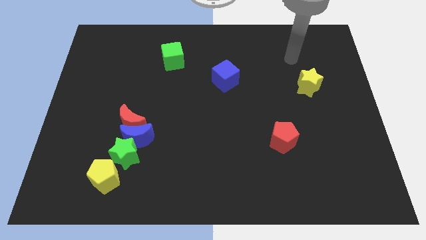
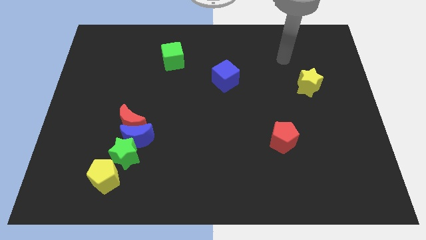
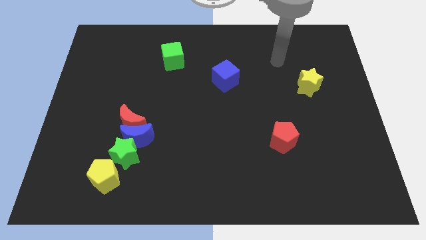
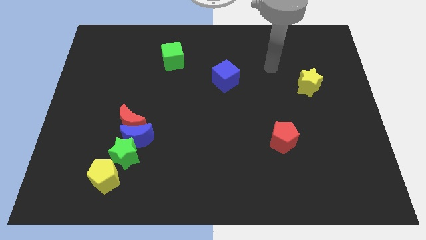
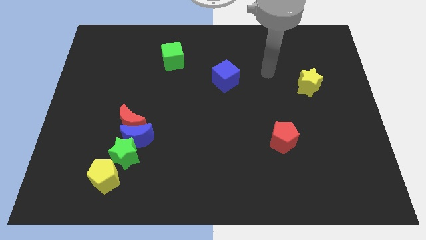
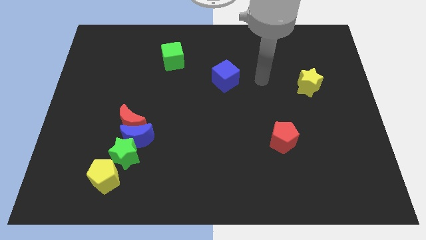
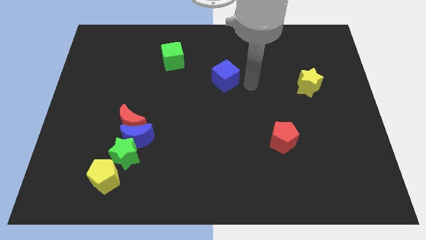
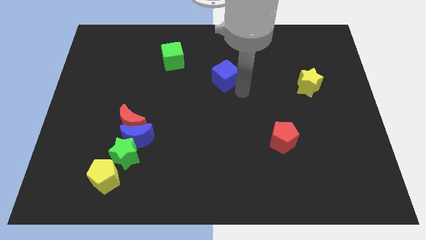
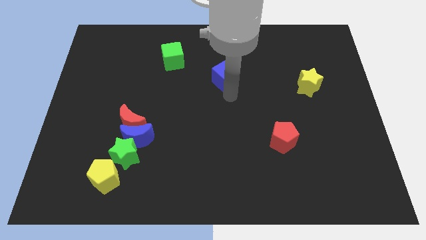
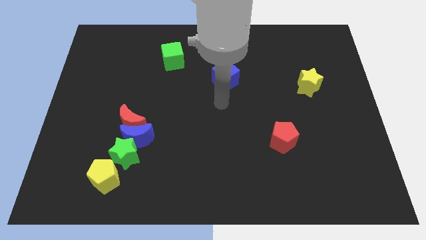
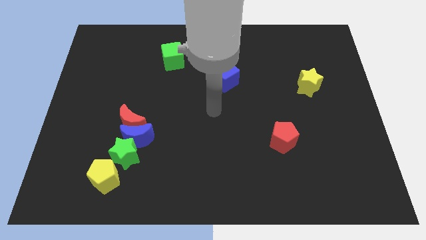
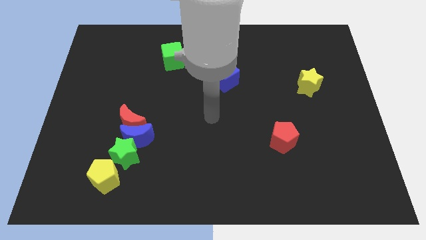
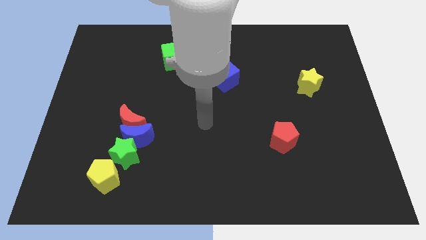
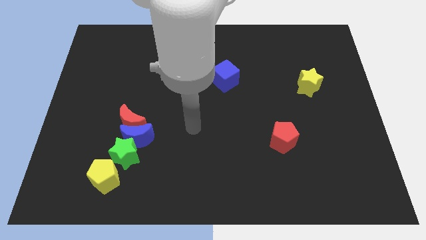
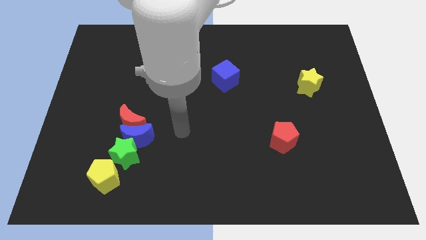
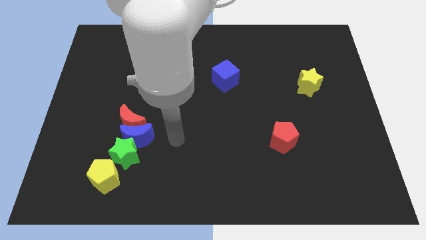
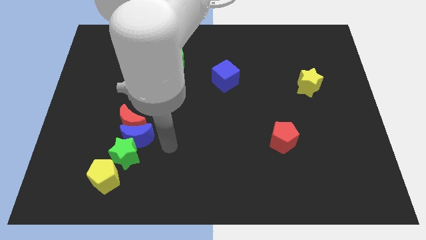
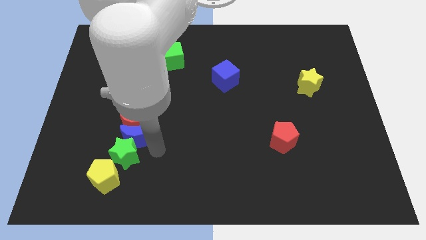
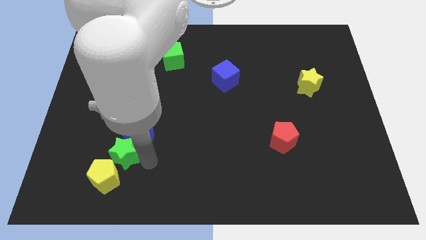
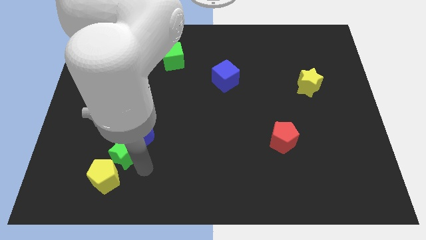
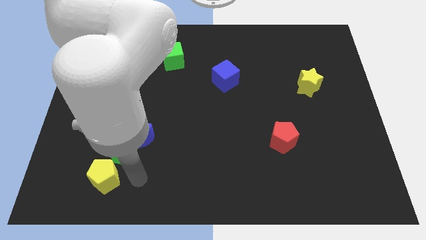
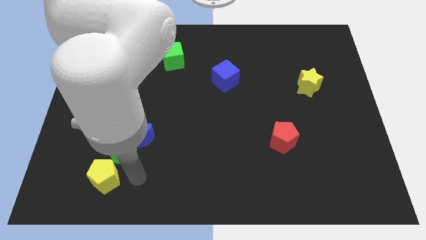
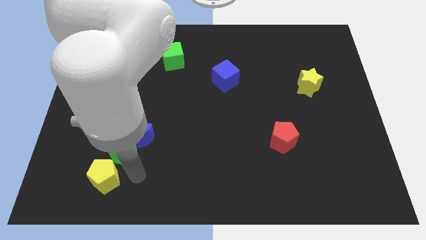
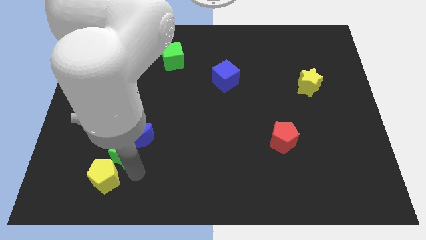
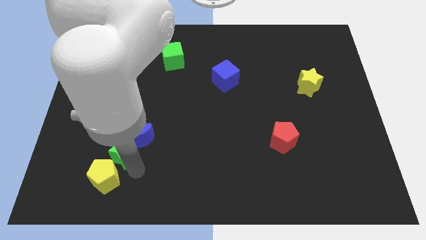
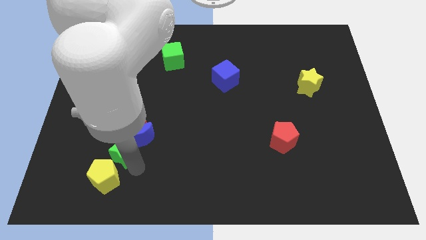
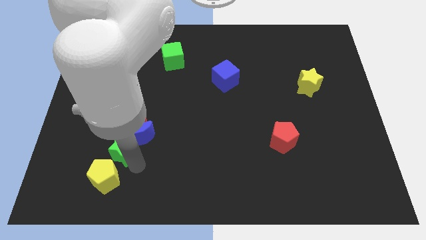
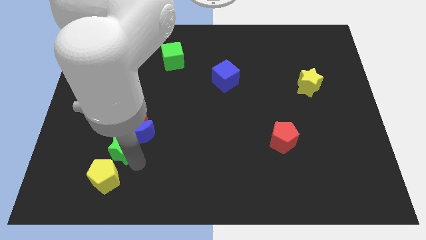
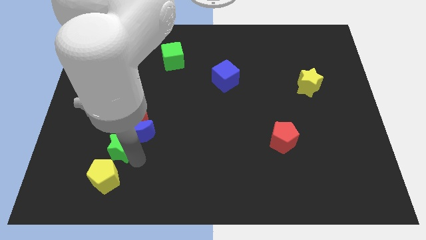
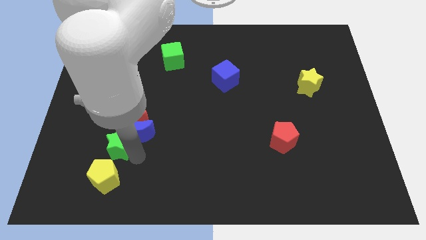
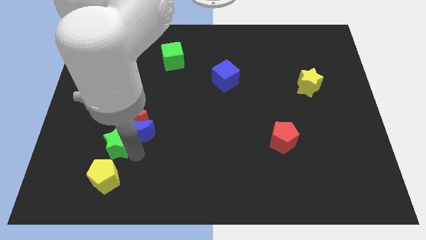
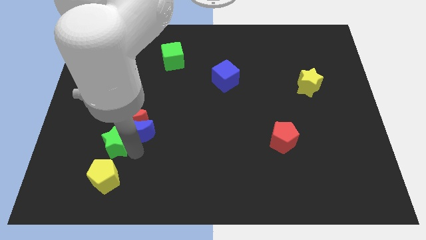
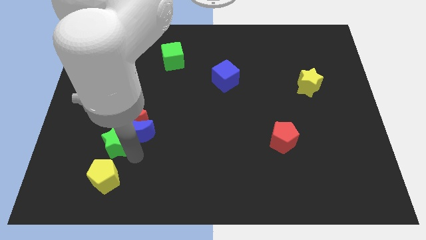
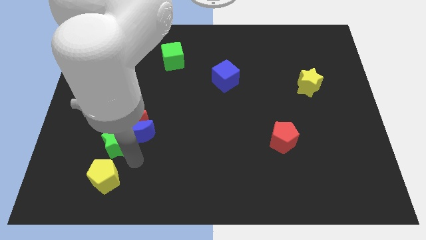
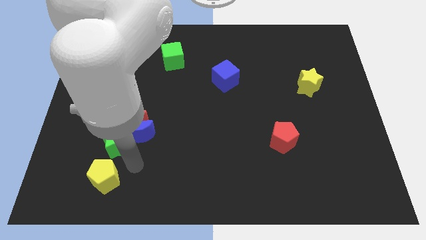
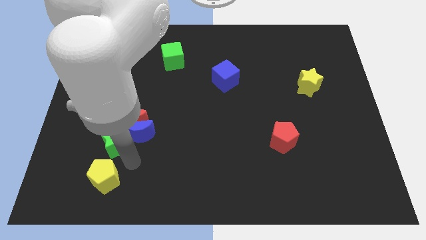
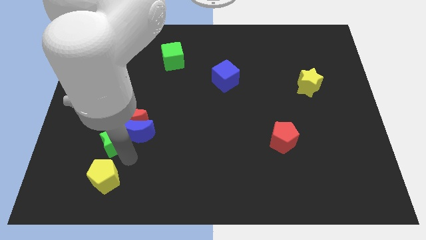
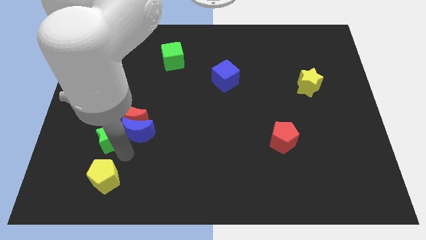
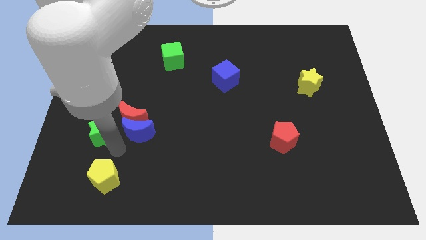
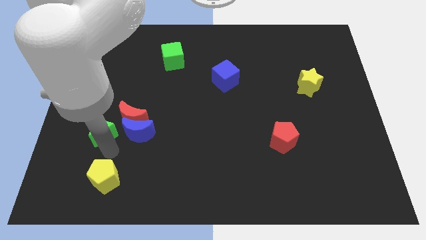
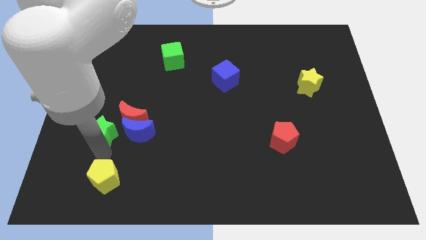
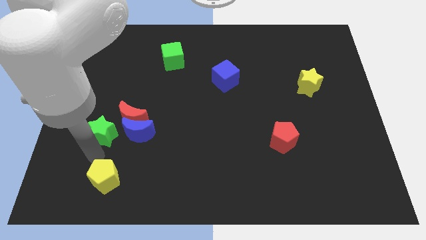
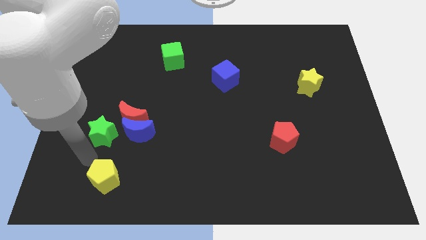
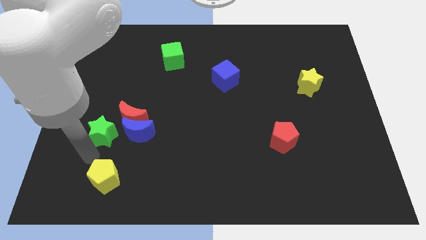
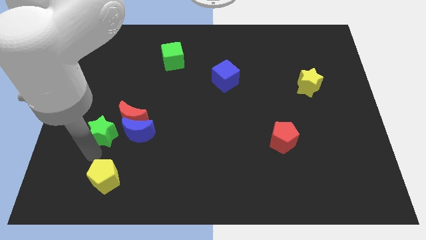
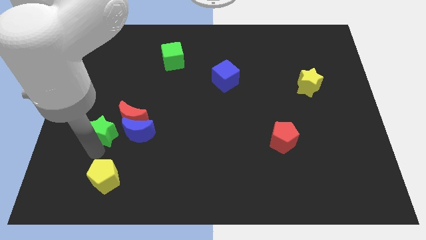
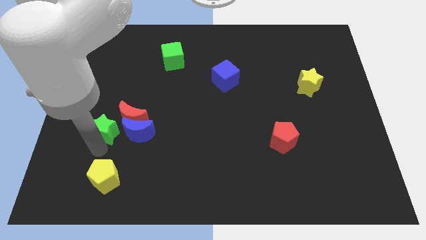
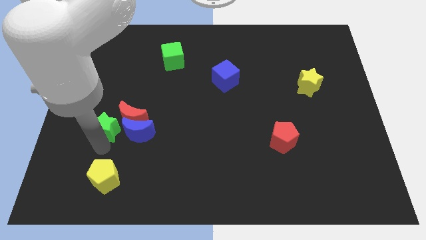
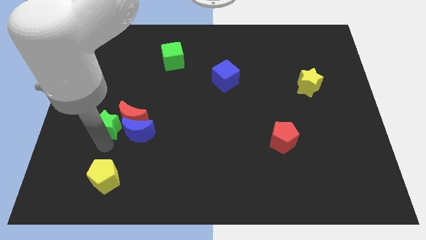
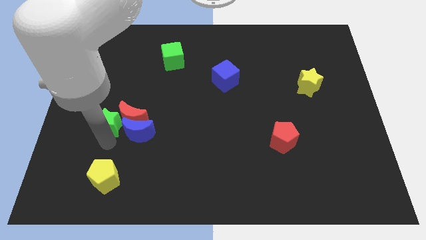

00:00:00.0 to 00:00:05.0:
slightly push the green star upwards

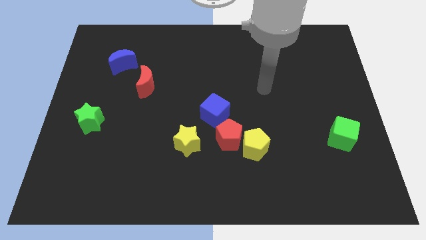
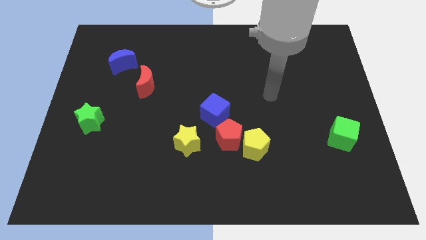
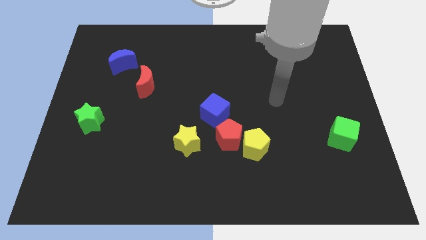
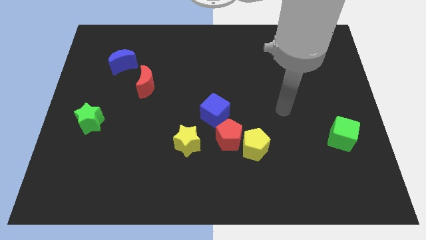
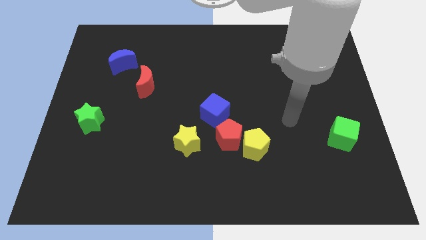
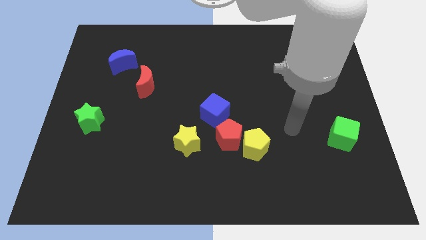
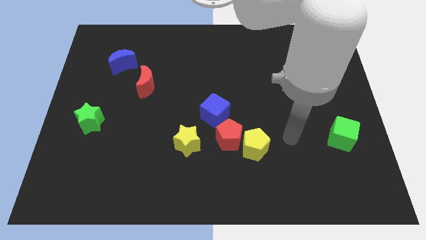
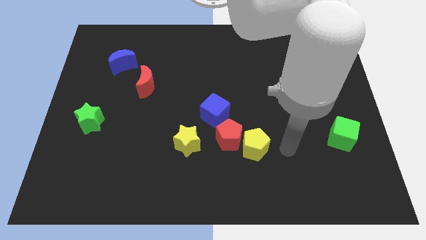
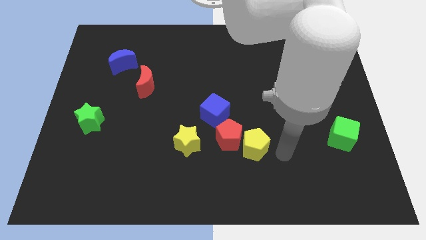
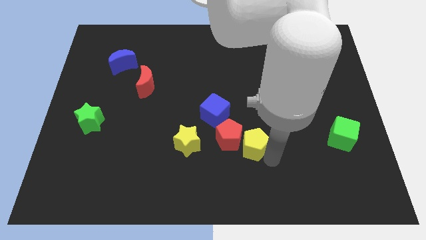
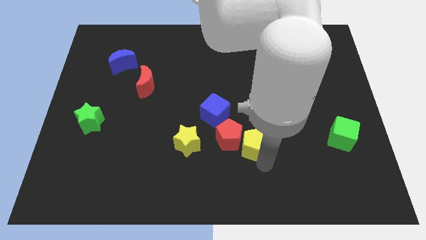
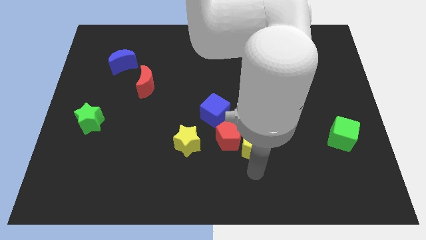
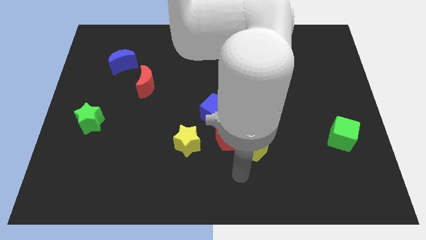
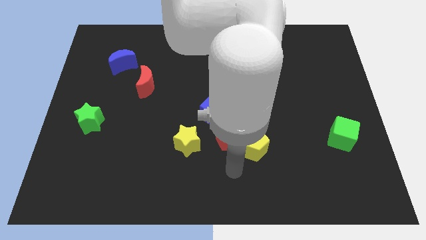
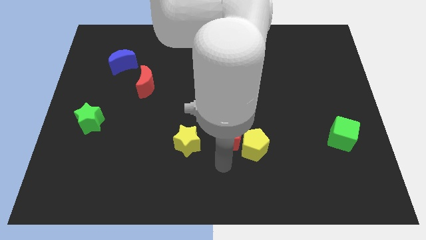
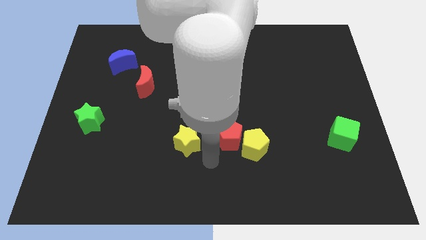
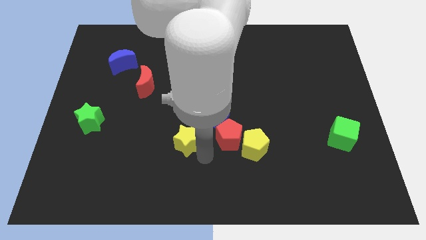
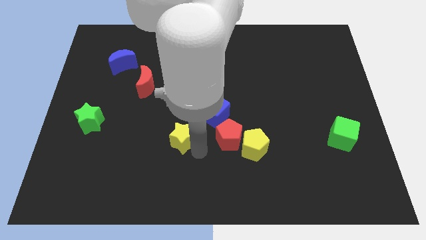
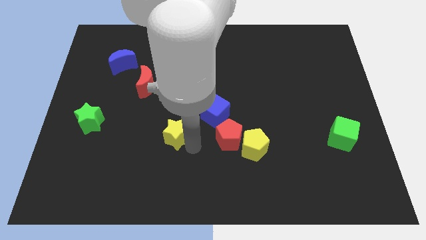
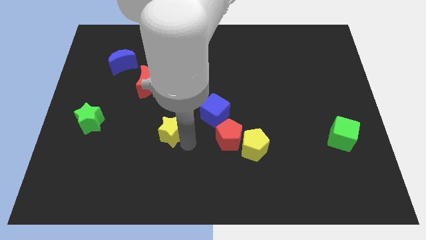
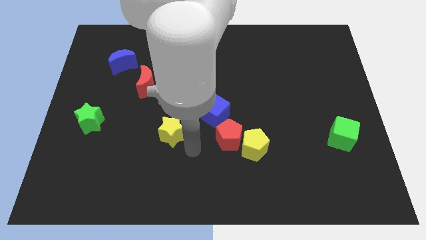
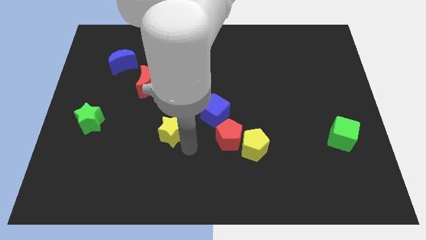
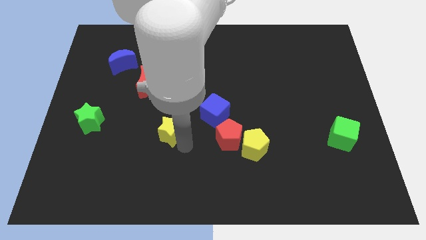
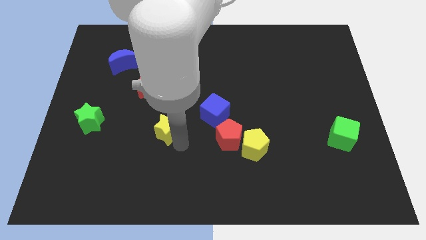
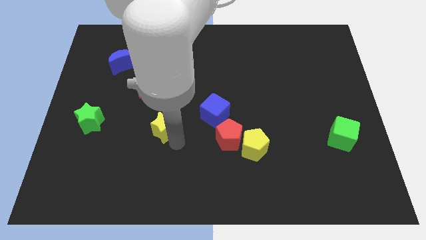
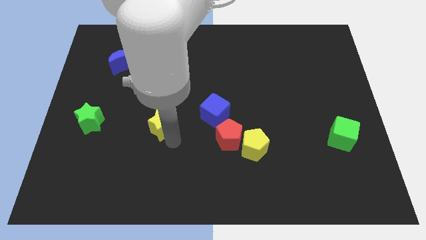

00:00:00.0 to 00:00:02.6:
slightly push the yellow star up and then left

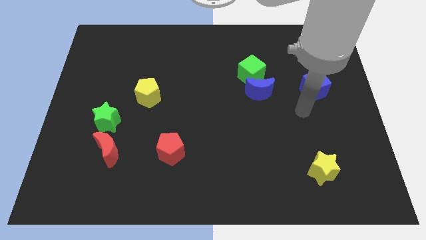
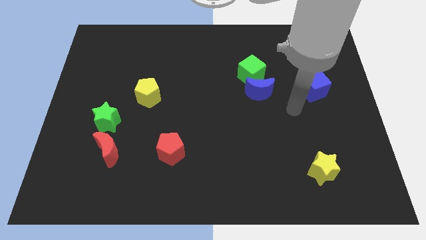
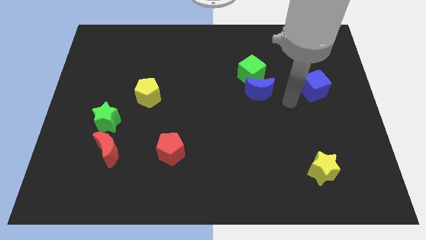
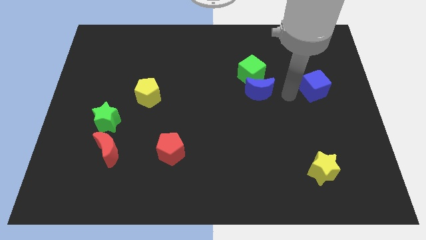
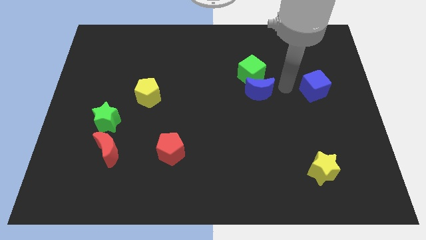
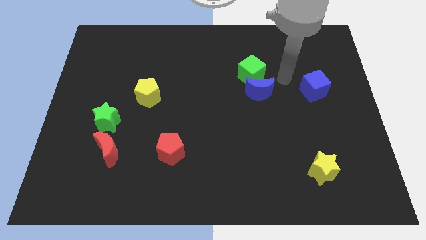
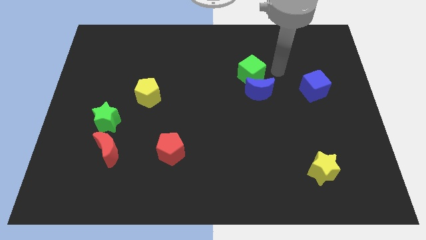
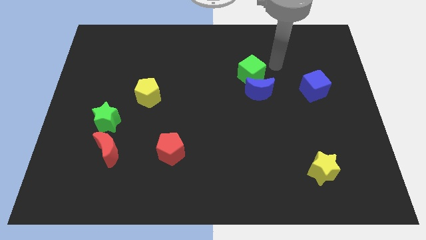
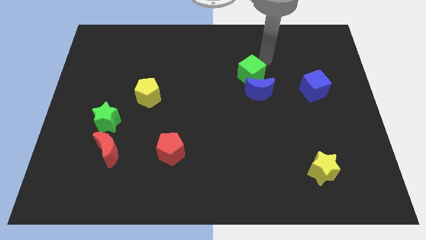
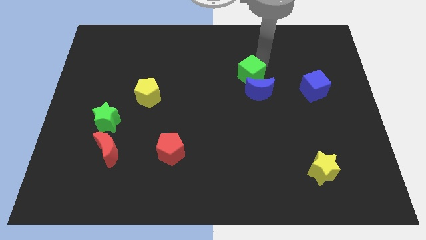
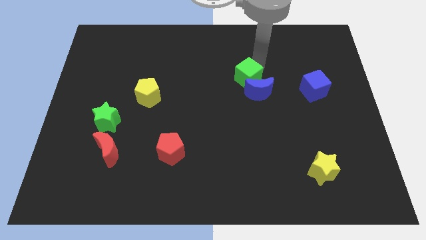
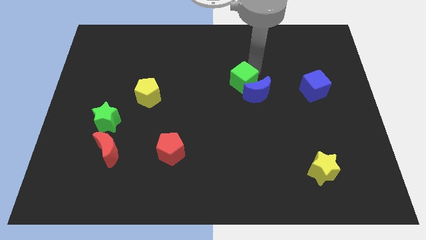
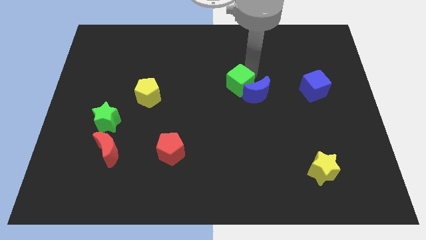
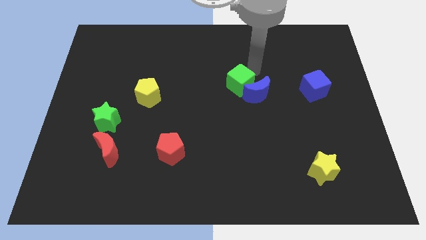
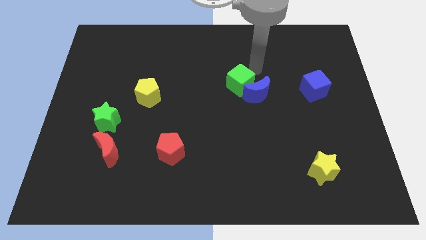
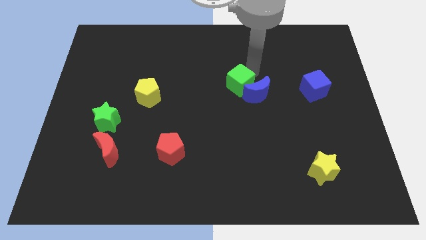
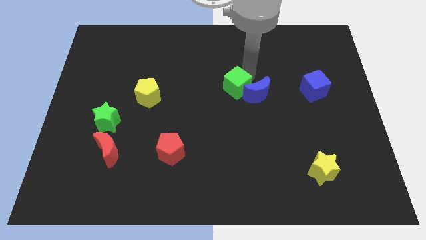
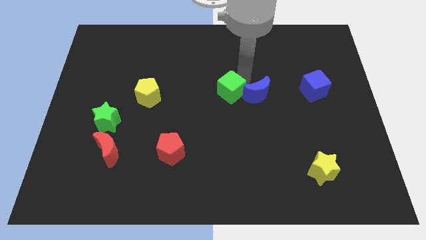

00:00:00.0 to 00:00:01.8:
slightly push the green cube downwards and left
